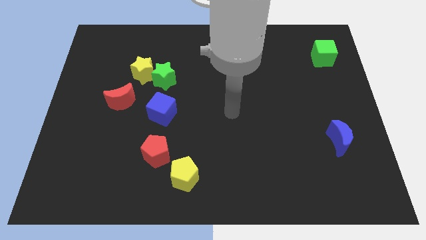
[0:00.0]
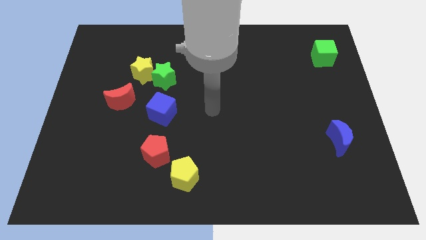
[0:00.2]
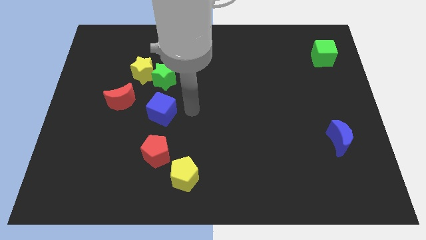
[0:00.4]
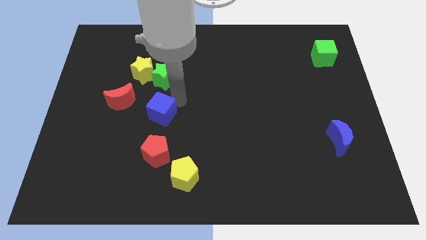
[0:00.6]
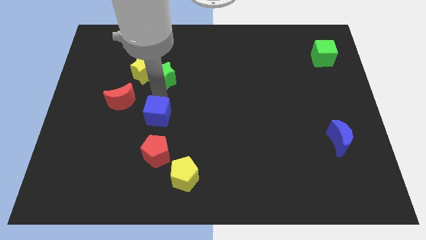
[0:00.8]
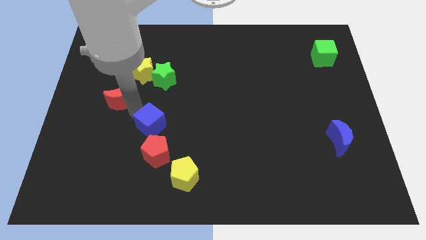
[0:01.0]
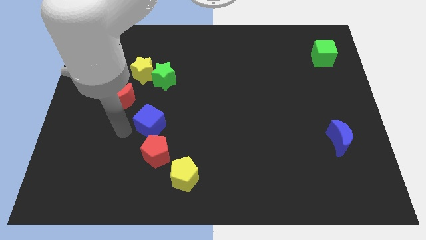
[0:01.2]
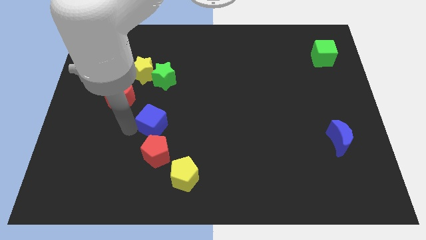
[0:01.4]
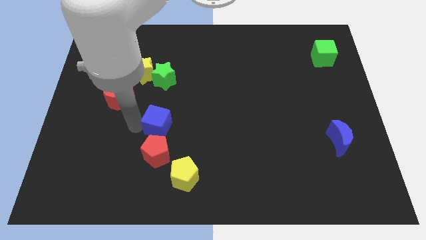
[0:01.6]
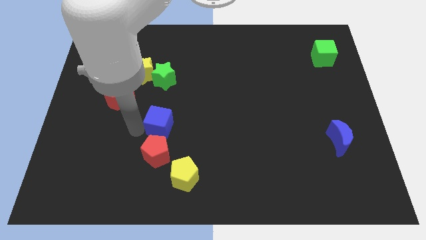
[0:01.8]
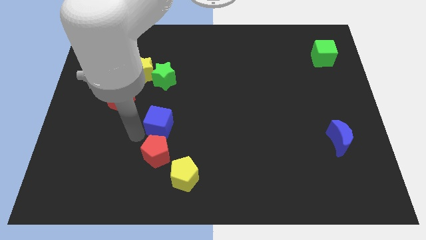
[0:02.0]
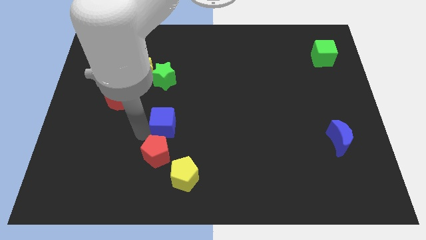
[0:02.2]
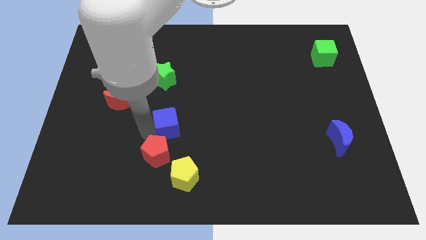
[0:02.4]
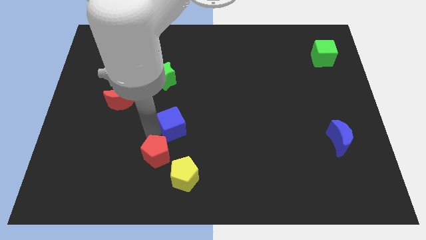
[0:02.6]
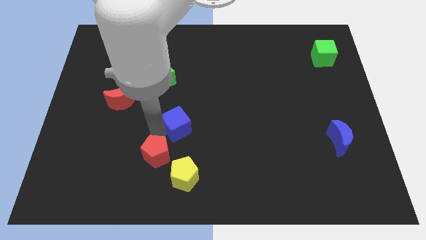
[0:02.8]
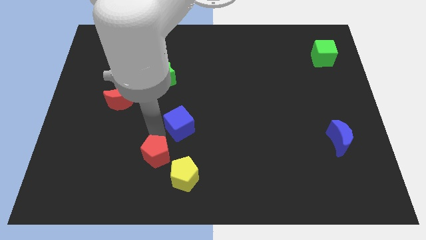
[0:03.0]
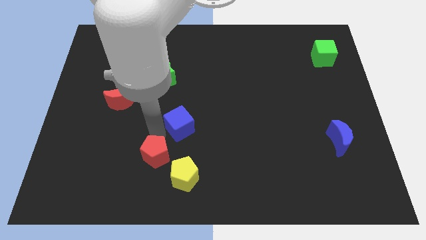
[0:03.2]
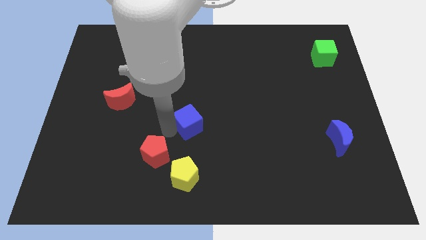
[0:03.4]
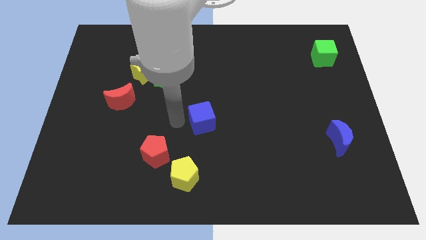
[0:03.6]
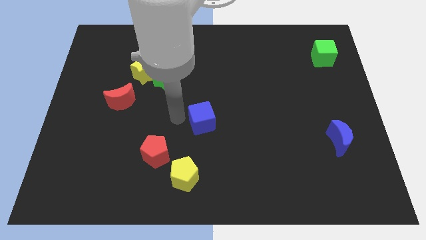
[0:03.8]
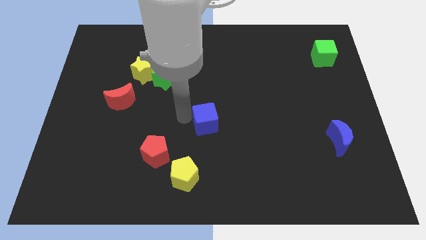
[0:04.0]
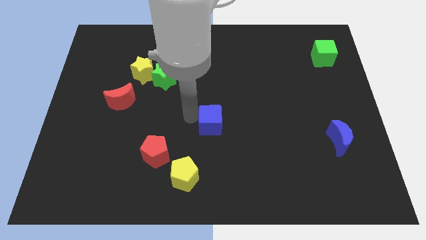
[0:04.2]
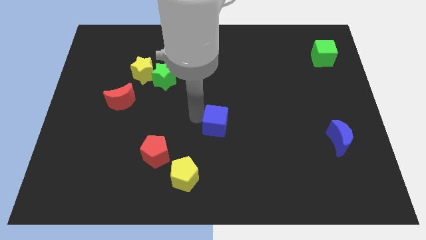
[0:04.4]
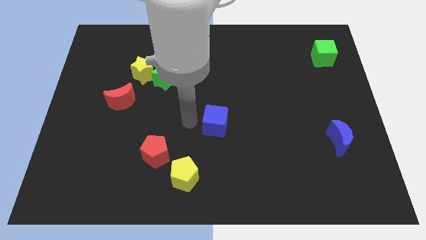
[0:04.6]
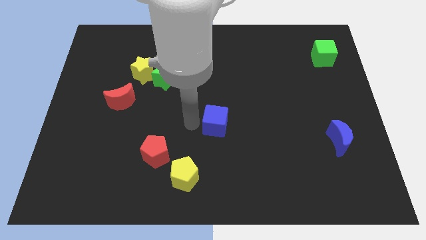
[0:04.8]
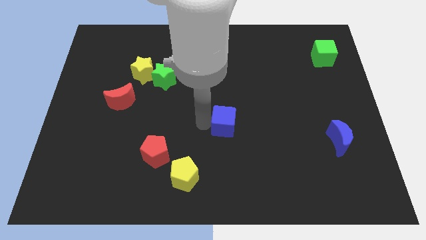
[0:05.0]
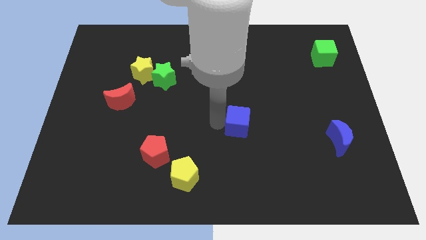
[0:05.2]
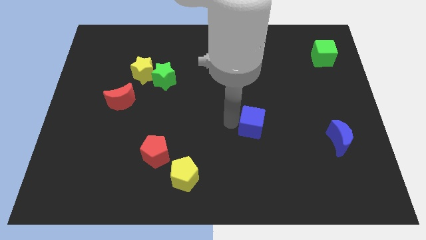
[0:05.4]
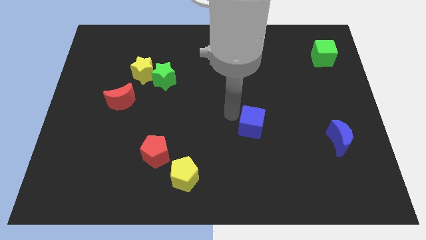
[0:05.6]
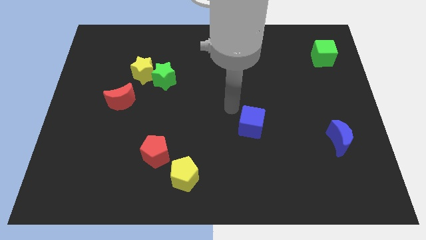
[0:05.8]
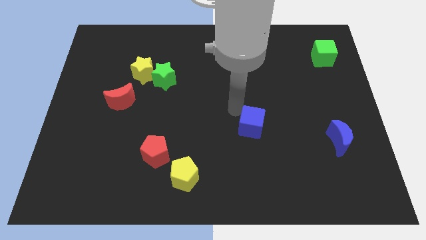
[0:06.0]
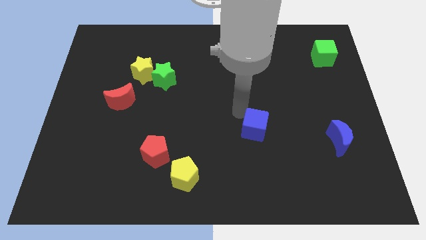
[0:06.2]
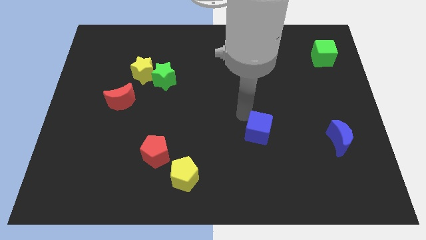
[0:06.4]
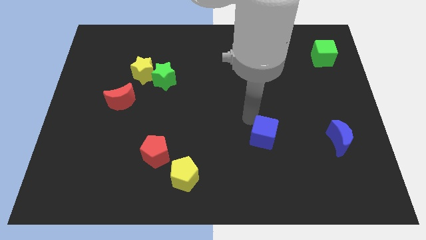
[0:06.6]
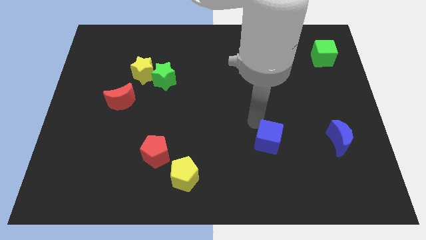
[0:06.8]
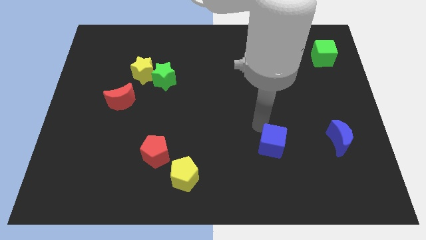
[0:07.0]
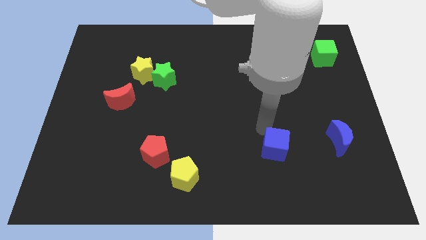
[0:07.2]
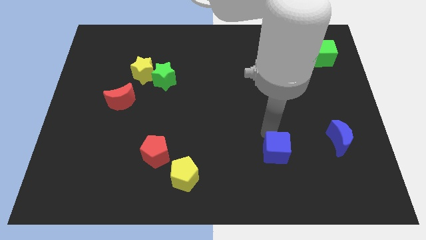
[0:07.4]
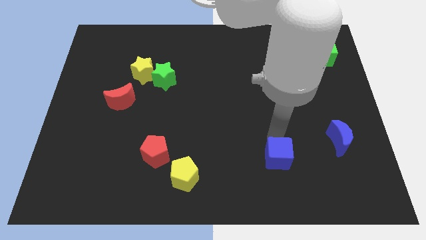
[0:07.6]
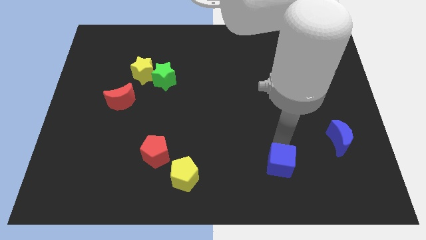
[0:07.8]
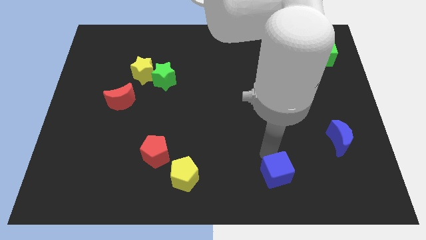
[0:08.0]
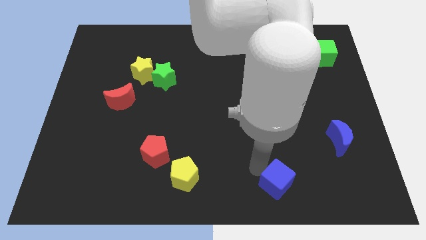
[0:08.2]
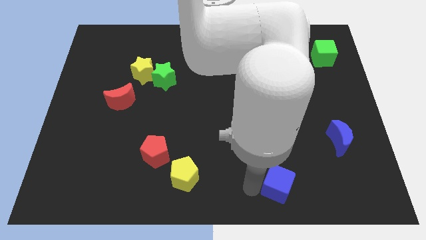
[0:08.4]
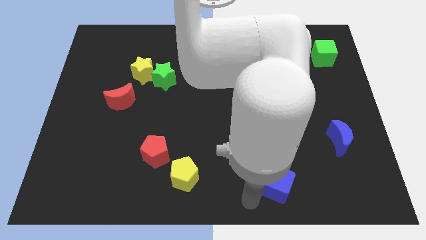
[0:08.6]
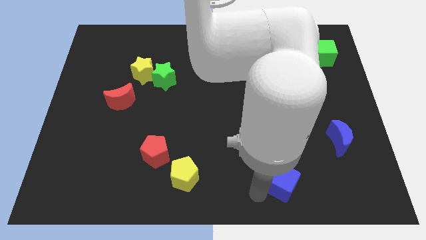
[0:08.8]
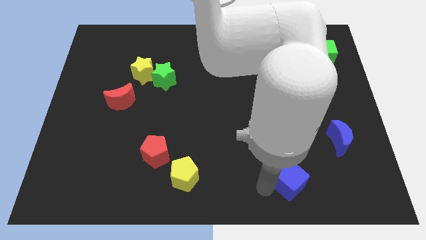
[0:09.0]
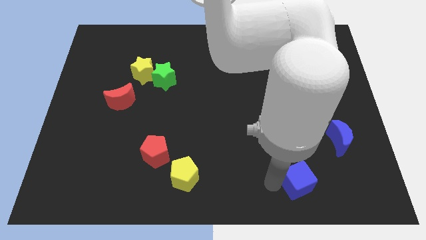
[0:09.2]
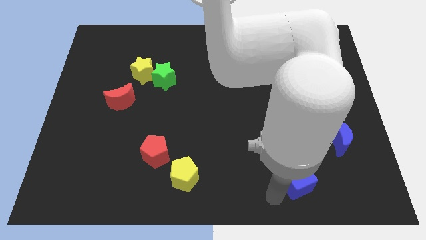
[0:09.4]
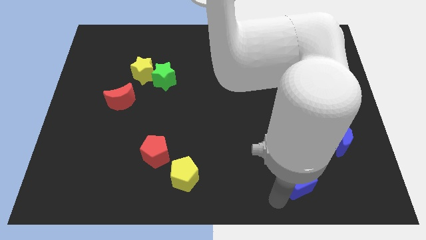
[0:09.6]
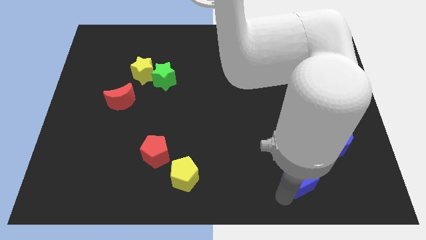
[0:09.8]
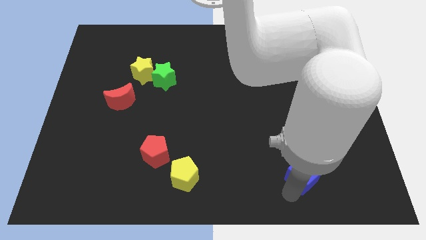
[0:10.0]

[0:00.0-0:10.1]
move the blue cube to the bottom left of the blue moon

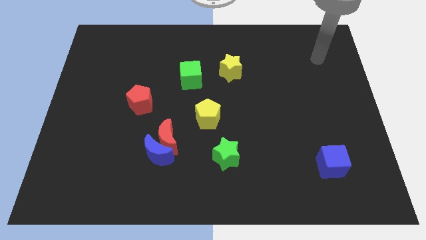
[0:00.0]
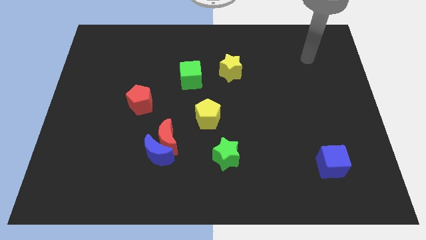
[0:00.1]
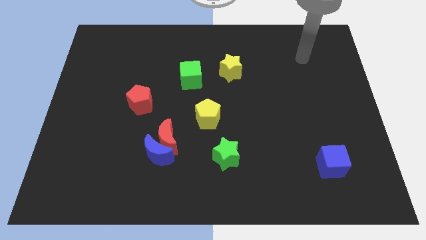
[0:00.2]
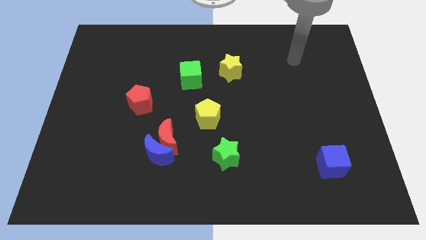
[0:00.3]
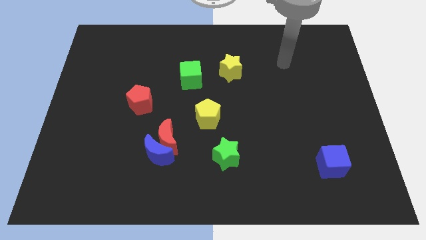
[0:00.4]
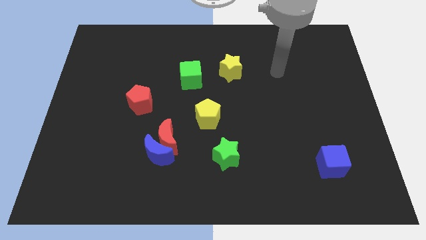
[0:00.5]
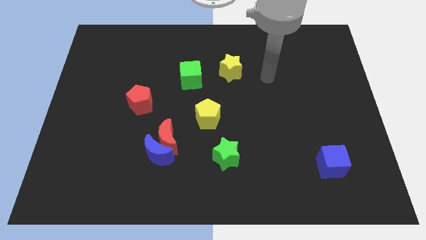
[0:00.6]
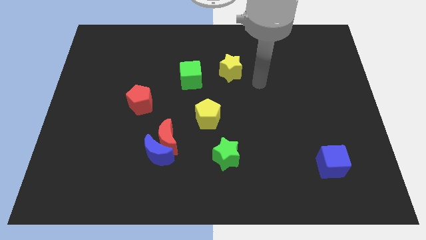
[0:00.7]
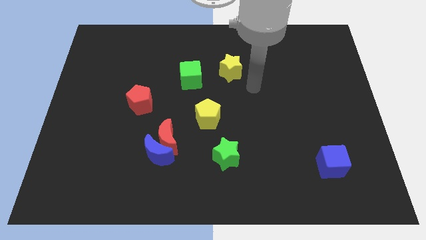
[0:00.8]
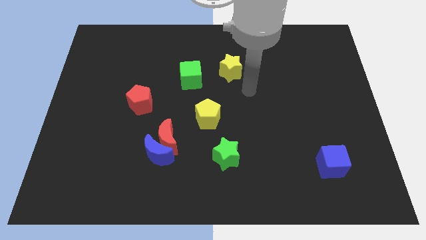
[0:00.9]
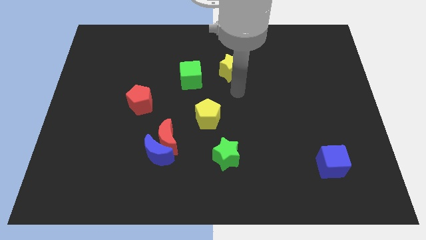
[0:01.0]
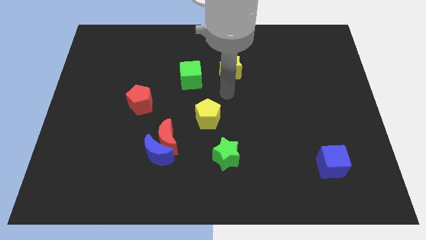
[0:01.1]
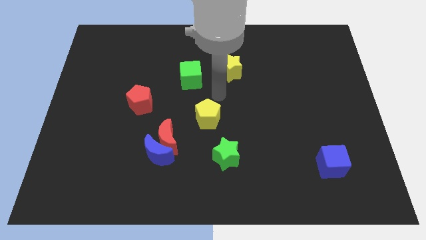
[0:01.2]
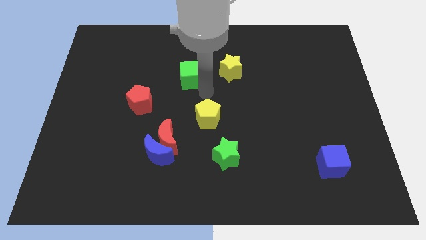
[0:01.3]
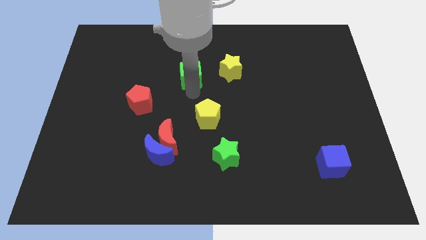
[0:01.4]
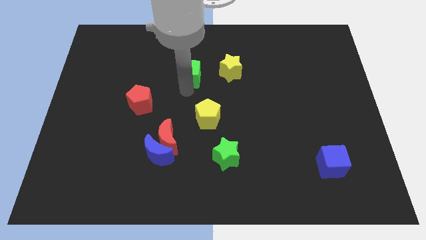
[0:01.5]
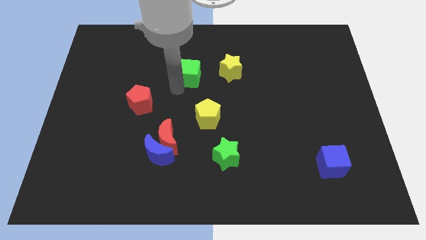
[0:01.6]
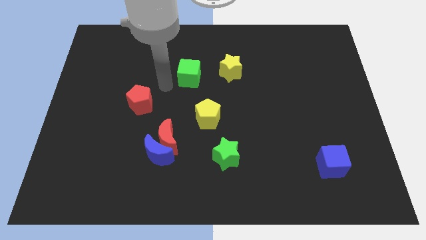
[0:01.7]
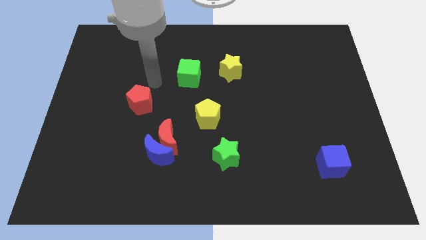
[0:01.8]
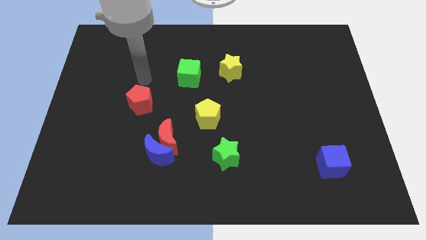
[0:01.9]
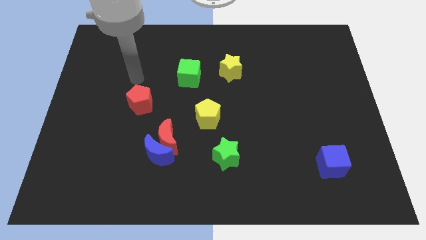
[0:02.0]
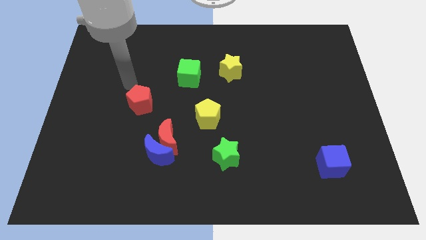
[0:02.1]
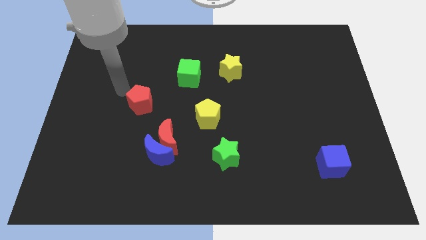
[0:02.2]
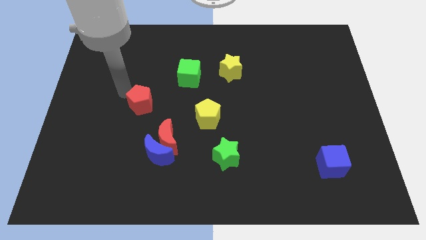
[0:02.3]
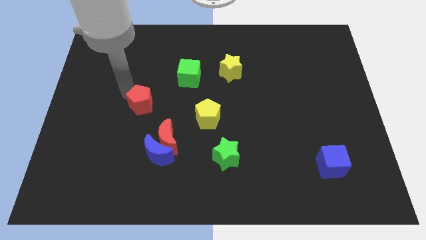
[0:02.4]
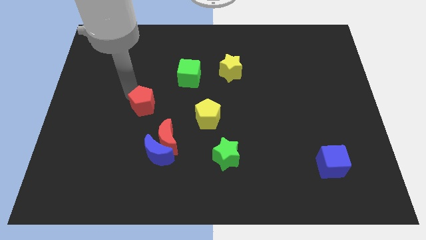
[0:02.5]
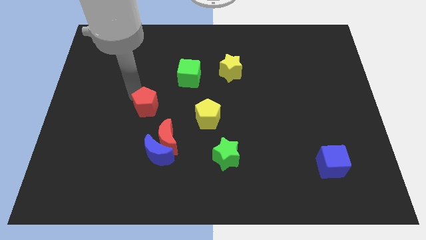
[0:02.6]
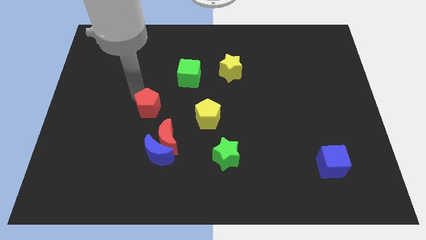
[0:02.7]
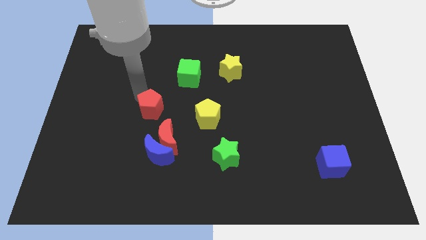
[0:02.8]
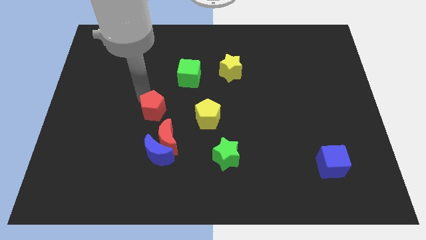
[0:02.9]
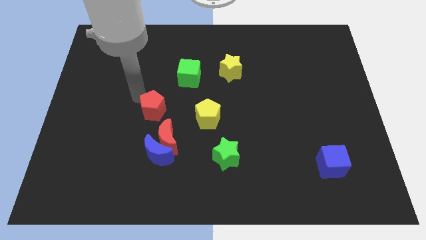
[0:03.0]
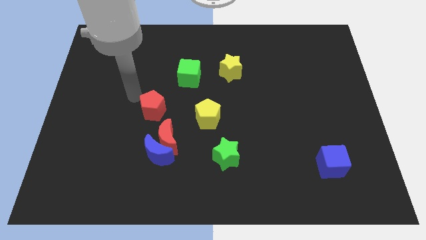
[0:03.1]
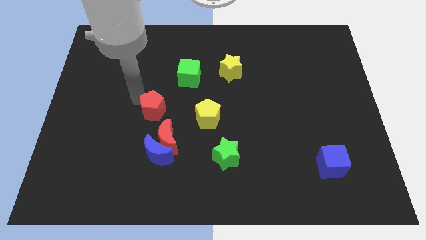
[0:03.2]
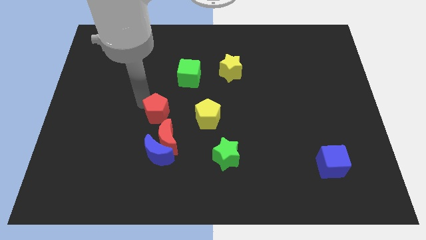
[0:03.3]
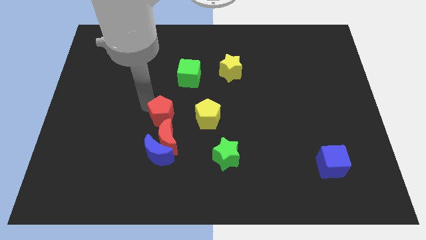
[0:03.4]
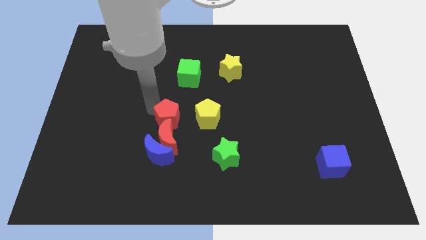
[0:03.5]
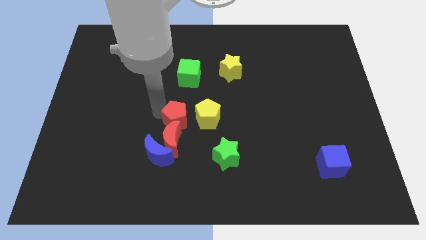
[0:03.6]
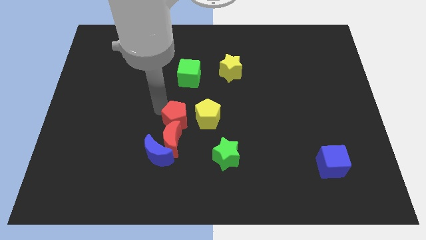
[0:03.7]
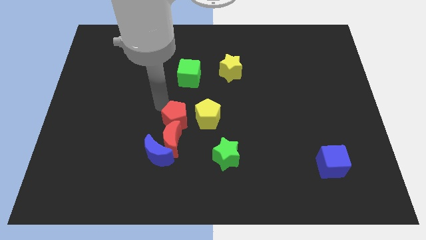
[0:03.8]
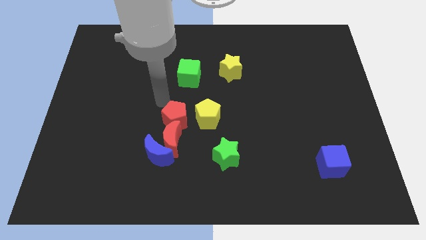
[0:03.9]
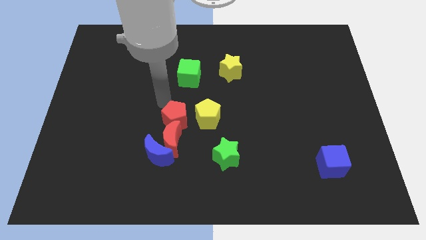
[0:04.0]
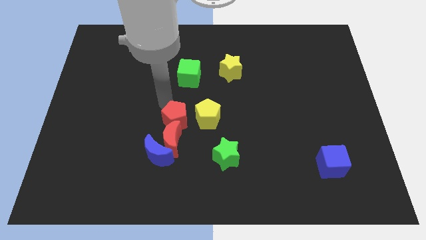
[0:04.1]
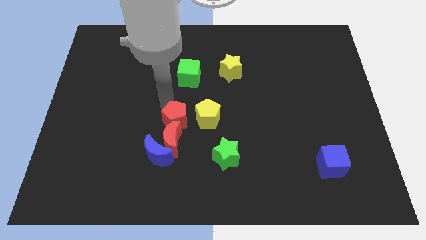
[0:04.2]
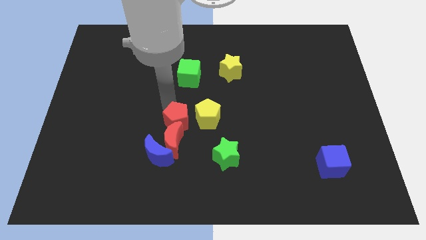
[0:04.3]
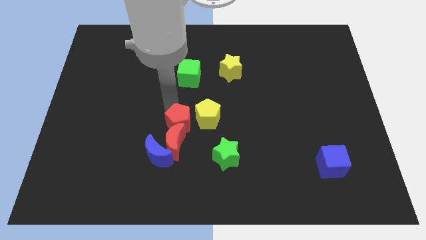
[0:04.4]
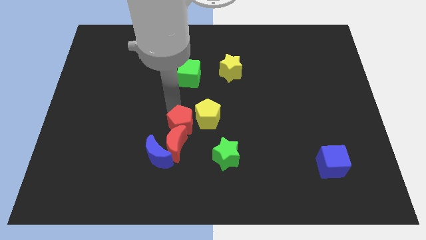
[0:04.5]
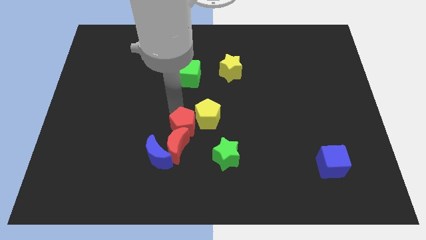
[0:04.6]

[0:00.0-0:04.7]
push the red pentagon to the top left of the green star
